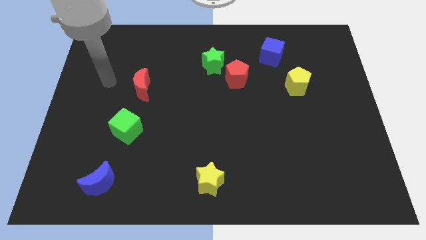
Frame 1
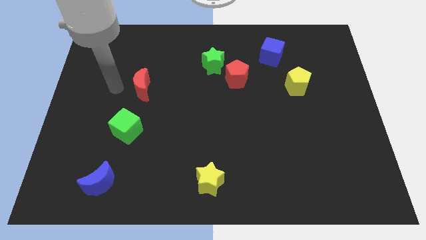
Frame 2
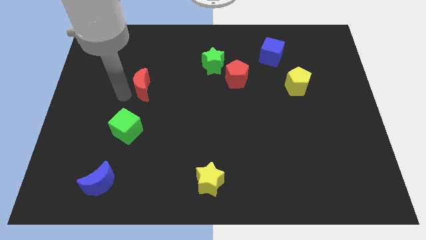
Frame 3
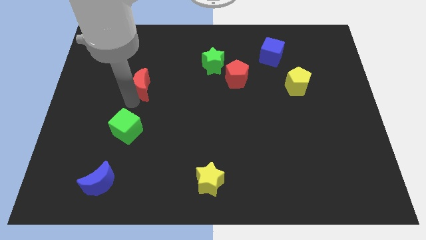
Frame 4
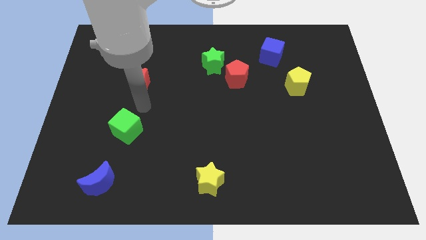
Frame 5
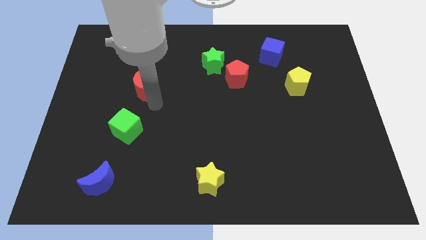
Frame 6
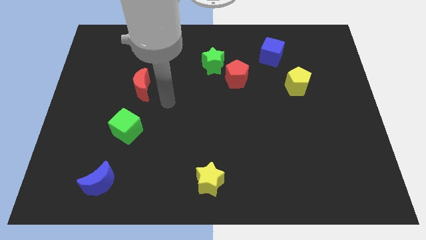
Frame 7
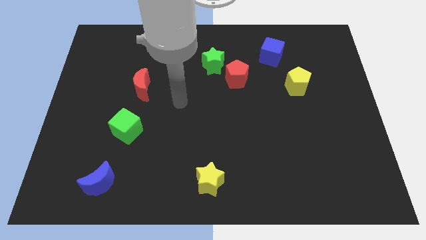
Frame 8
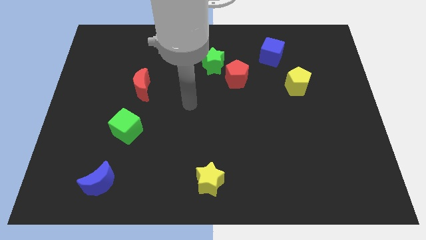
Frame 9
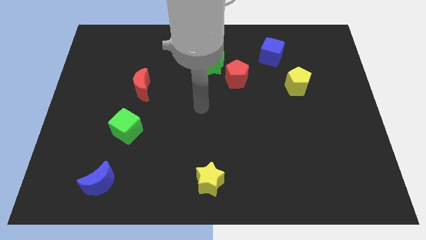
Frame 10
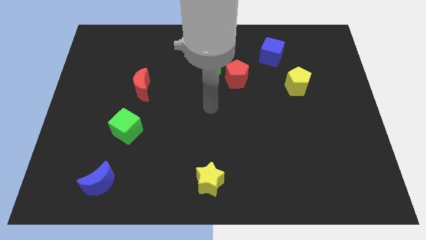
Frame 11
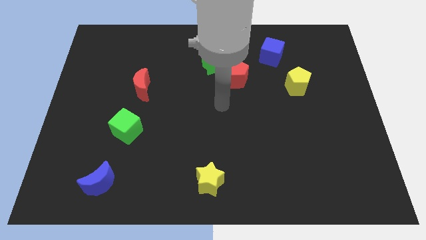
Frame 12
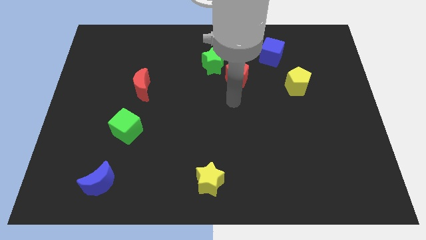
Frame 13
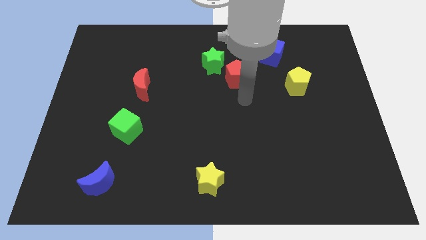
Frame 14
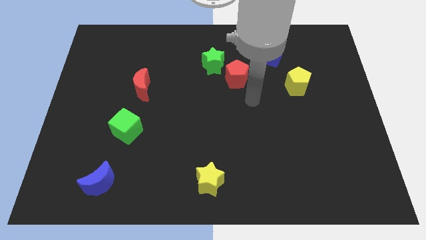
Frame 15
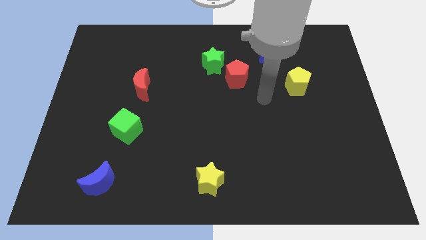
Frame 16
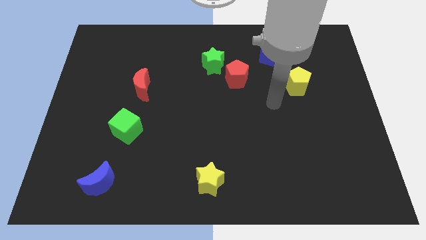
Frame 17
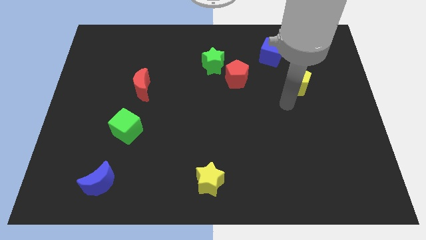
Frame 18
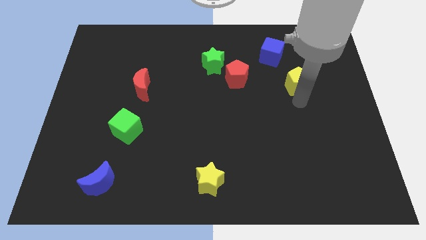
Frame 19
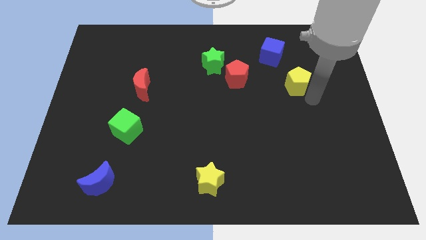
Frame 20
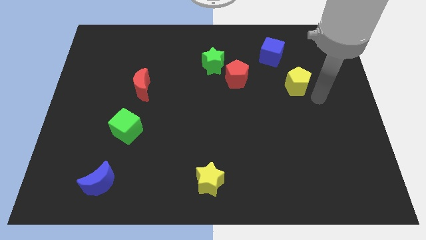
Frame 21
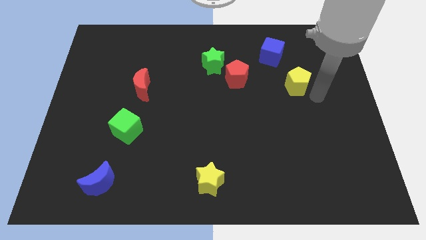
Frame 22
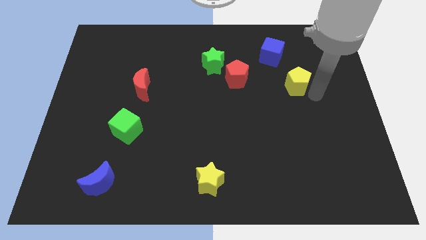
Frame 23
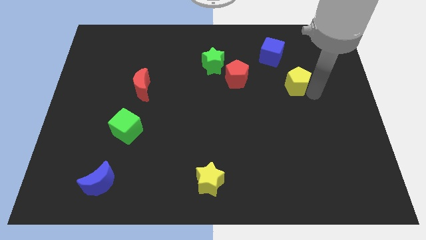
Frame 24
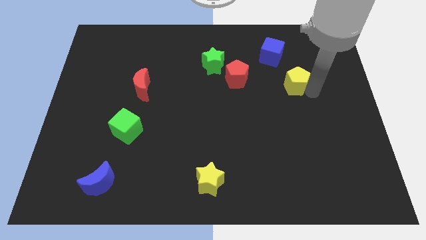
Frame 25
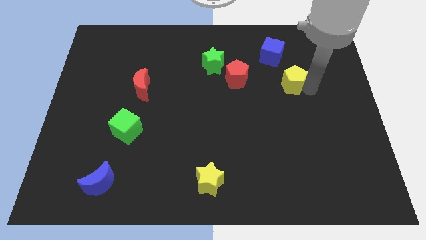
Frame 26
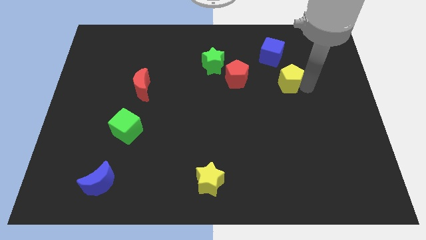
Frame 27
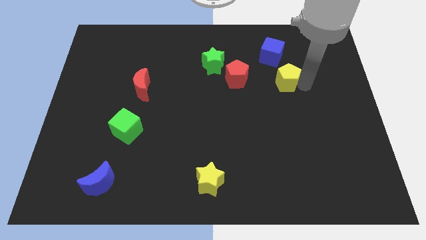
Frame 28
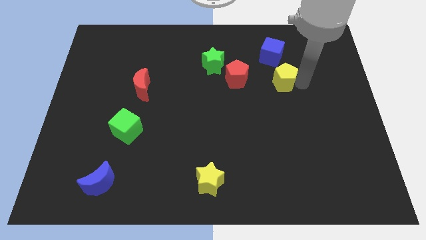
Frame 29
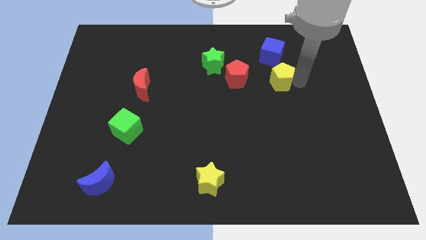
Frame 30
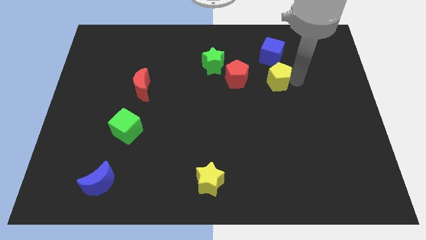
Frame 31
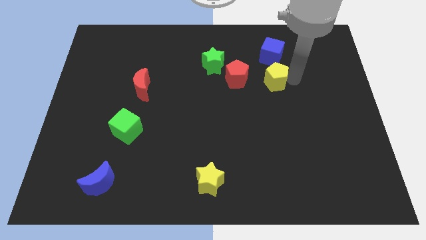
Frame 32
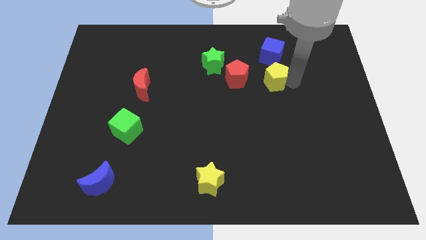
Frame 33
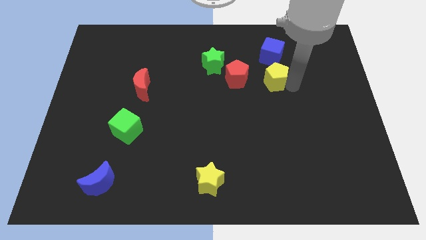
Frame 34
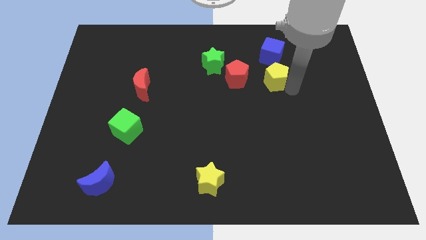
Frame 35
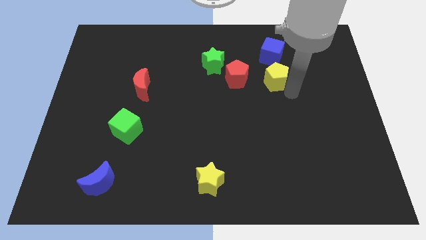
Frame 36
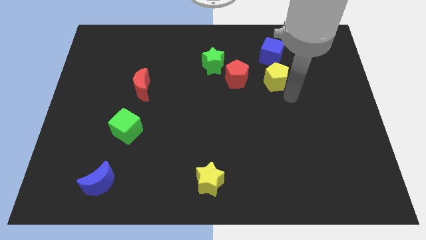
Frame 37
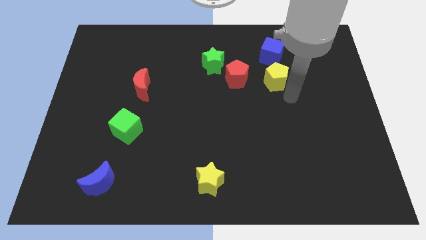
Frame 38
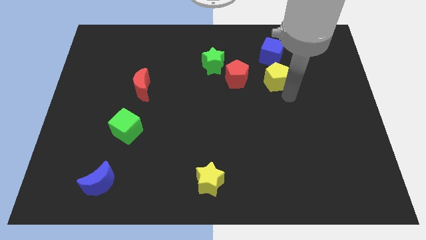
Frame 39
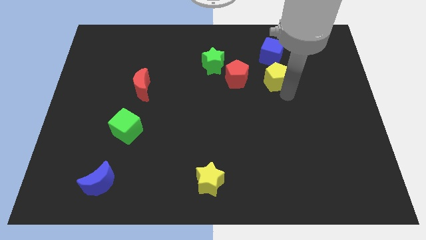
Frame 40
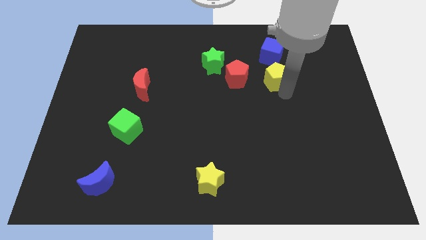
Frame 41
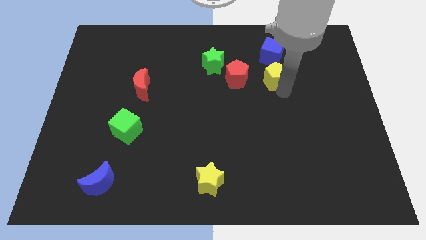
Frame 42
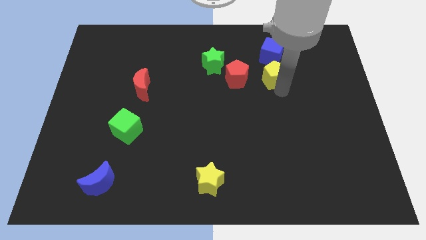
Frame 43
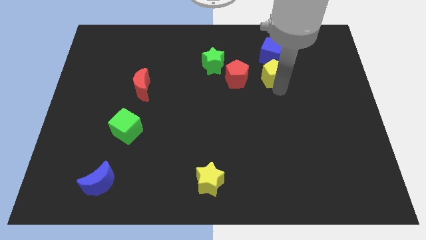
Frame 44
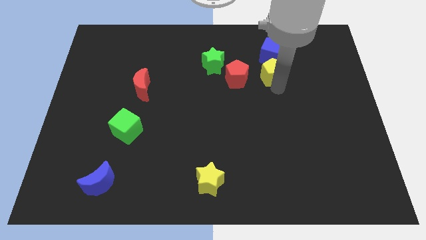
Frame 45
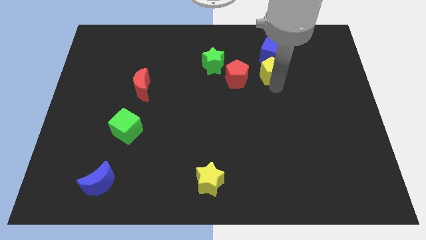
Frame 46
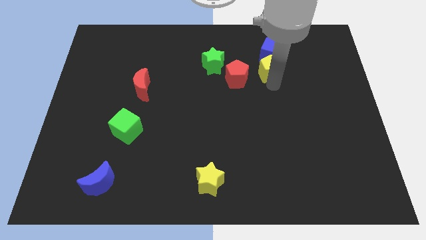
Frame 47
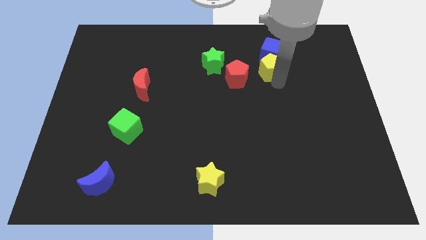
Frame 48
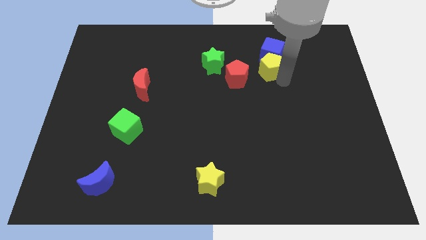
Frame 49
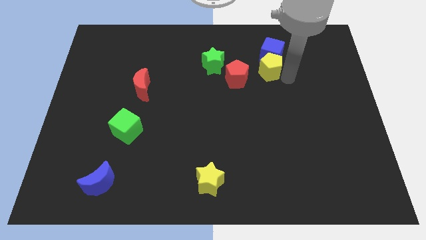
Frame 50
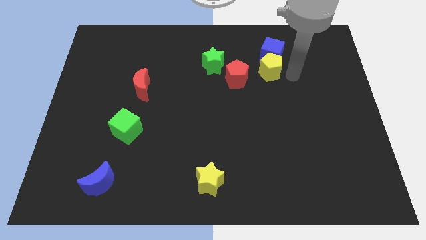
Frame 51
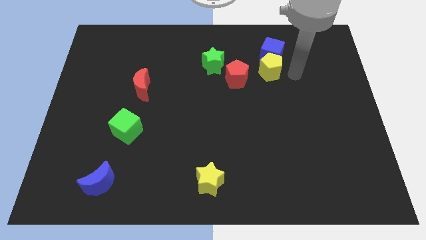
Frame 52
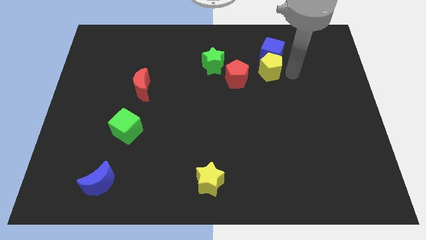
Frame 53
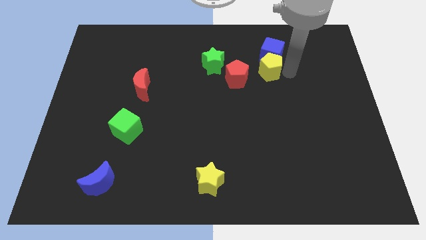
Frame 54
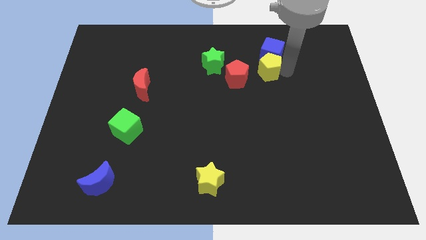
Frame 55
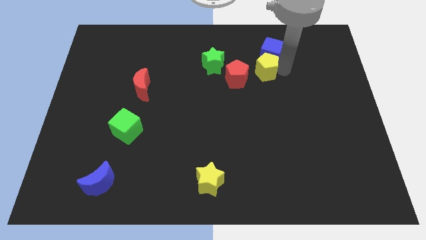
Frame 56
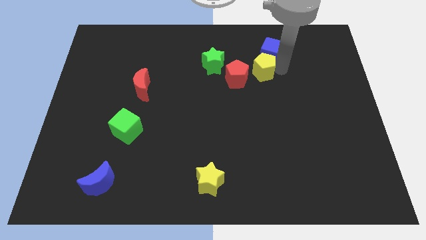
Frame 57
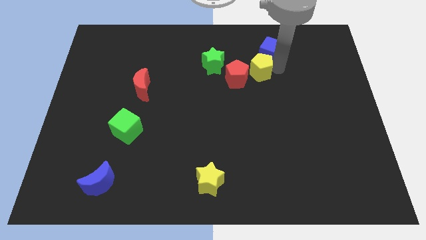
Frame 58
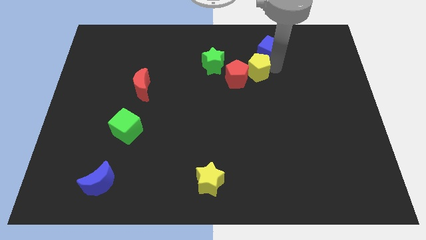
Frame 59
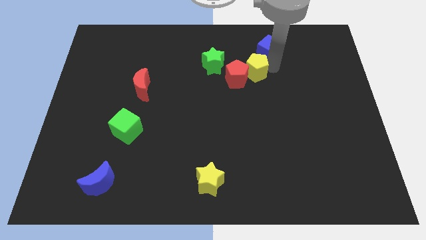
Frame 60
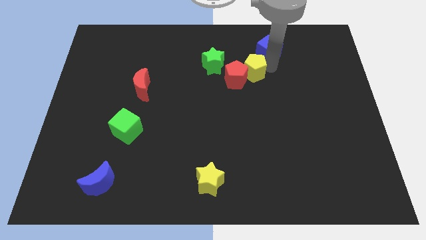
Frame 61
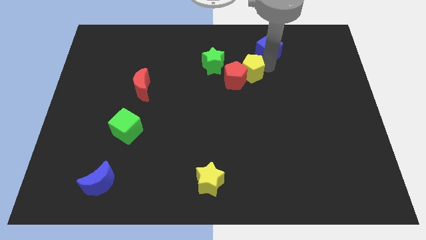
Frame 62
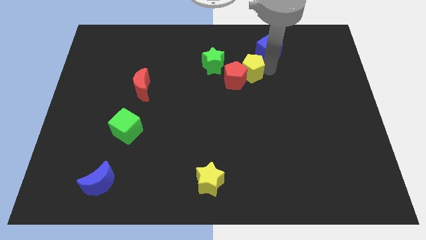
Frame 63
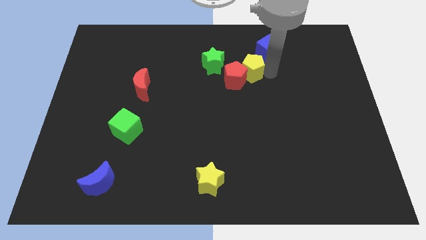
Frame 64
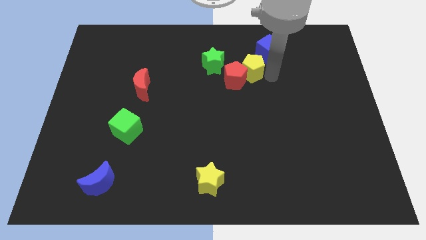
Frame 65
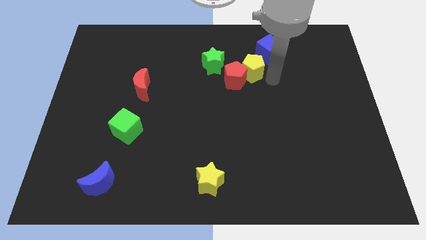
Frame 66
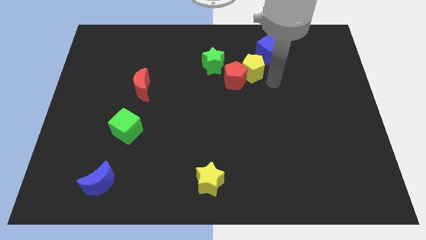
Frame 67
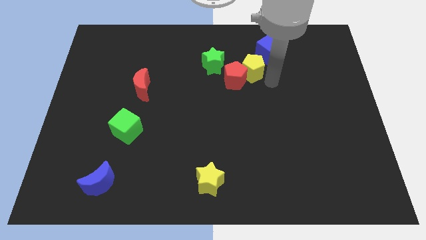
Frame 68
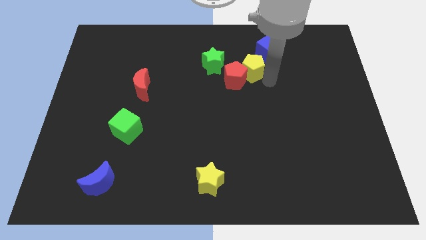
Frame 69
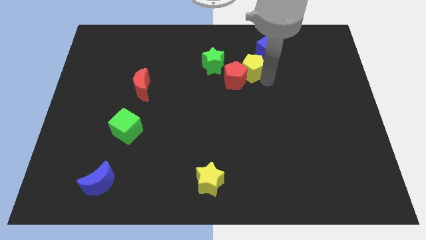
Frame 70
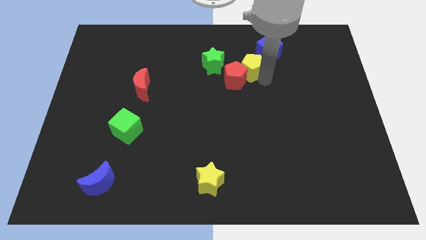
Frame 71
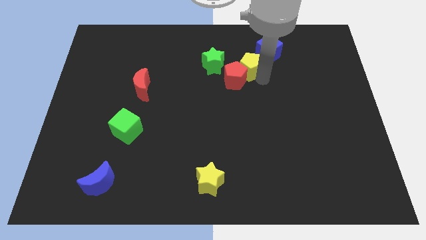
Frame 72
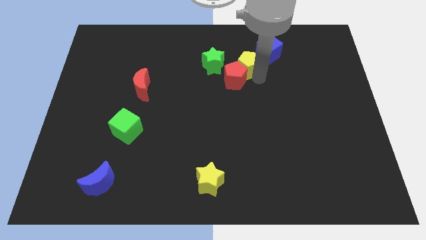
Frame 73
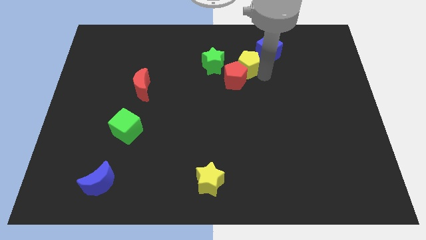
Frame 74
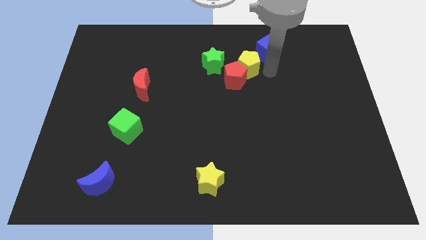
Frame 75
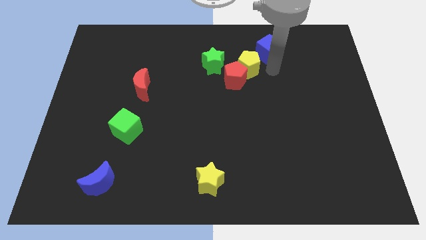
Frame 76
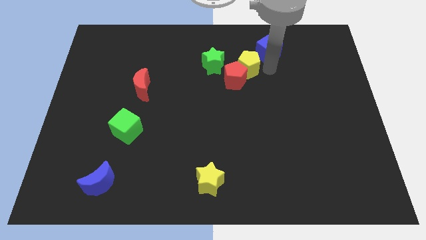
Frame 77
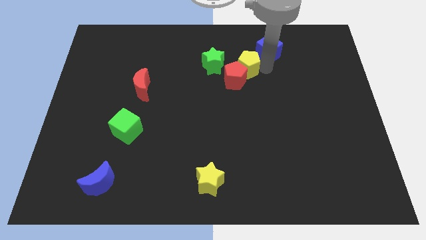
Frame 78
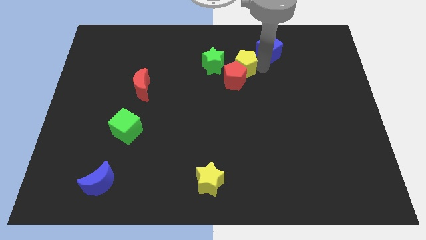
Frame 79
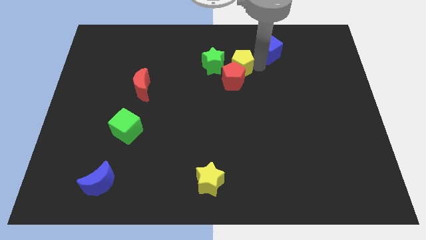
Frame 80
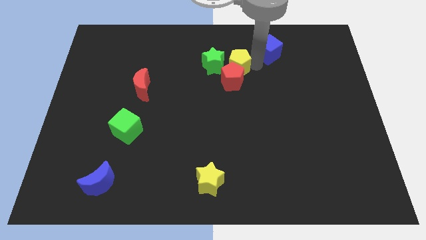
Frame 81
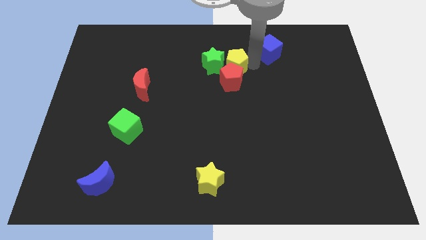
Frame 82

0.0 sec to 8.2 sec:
put the yellow pentagon to the green star
